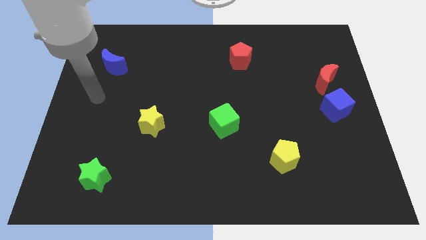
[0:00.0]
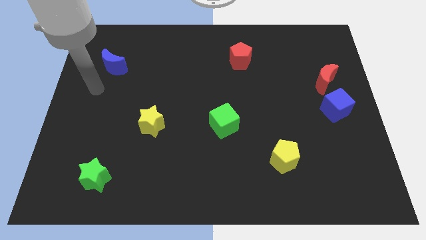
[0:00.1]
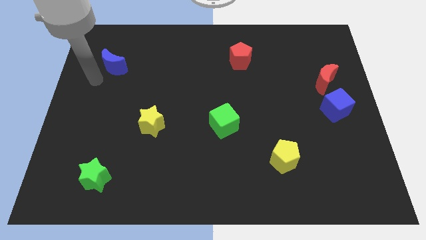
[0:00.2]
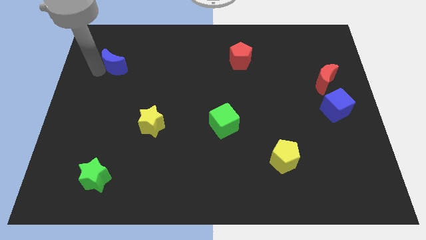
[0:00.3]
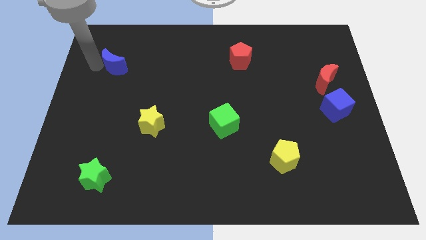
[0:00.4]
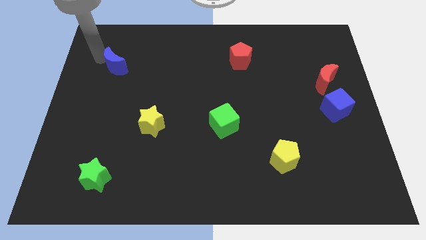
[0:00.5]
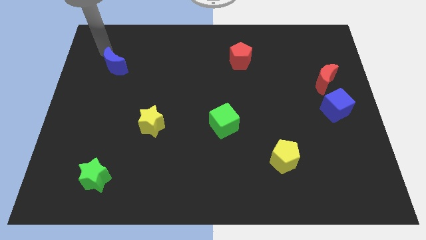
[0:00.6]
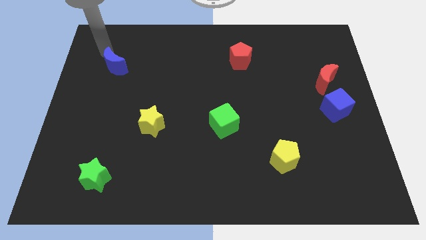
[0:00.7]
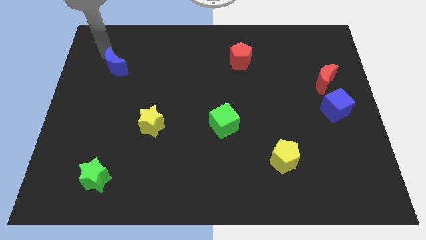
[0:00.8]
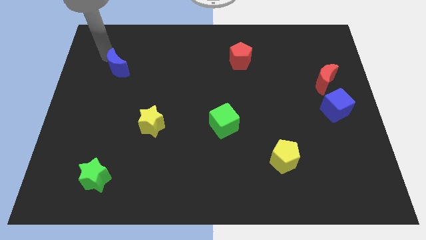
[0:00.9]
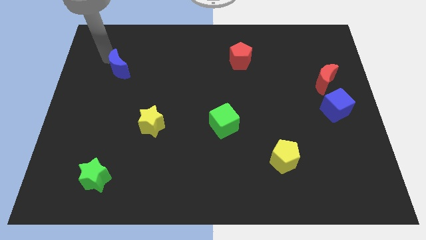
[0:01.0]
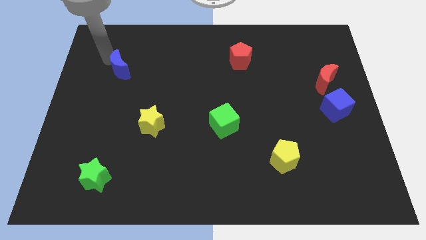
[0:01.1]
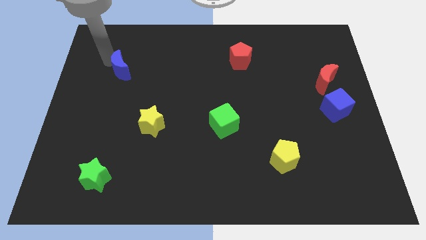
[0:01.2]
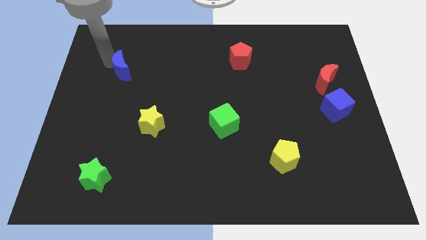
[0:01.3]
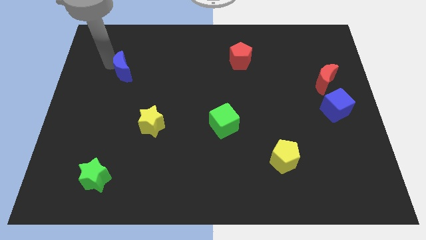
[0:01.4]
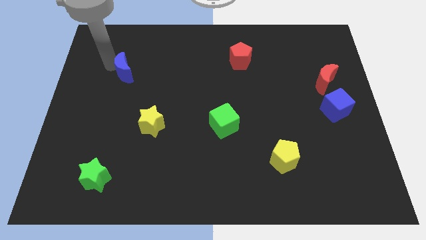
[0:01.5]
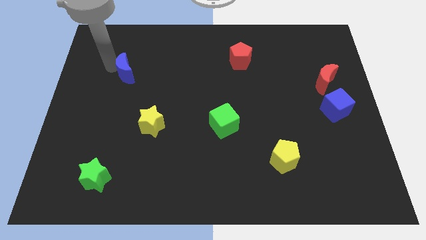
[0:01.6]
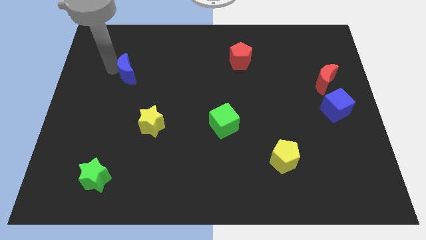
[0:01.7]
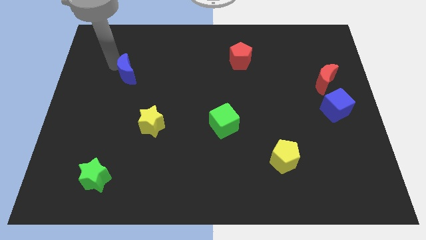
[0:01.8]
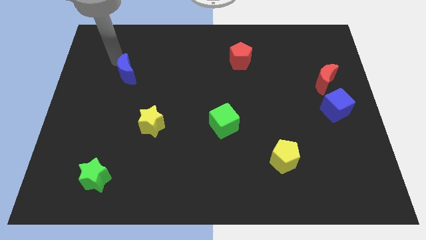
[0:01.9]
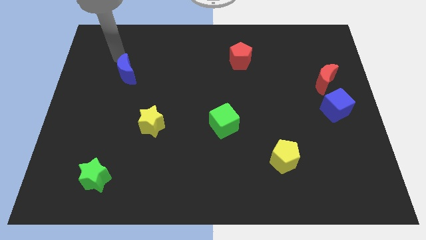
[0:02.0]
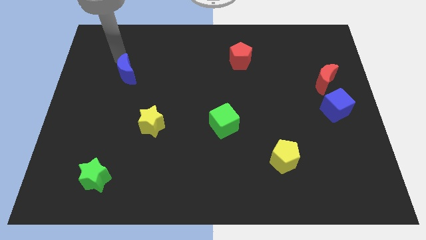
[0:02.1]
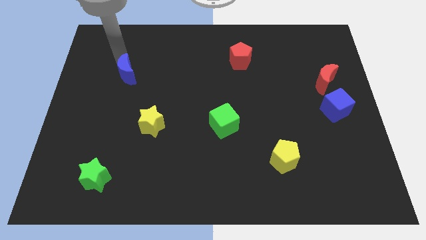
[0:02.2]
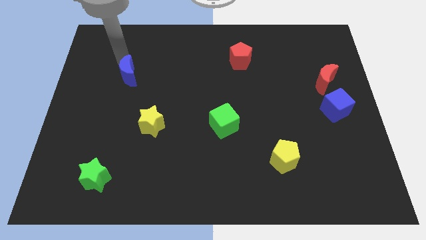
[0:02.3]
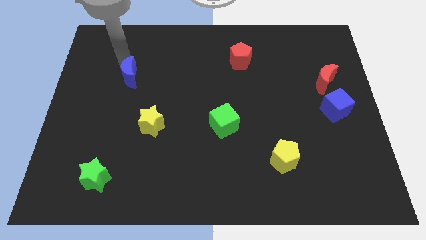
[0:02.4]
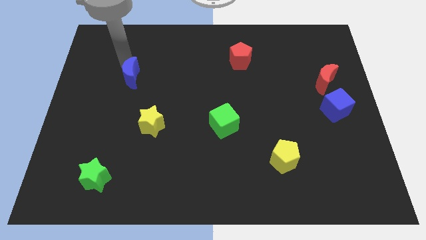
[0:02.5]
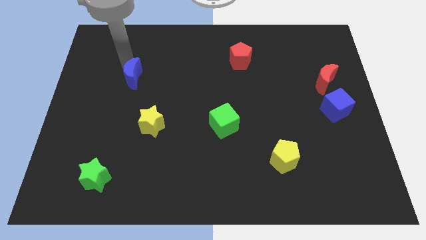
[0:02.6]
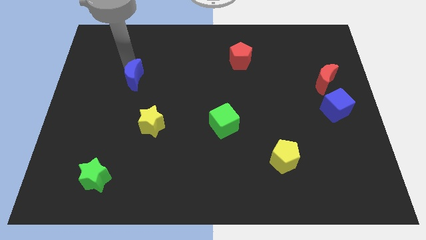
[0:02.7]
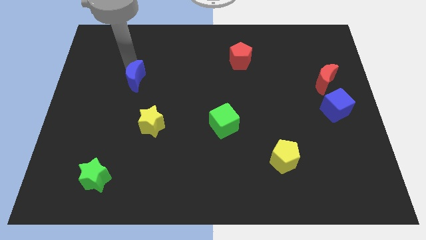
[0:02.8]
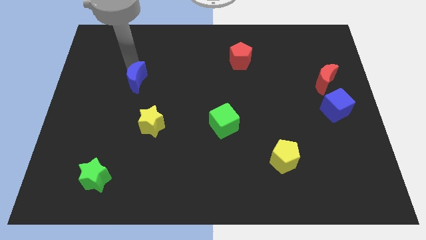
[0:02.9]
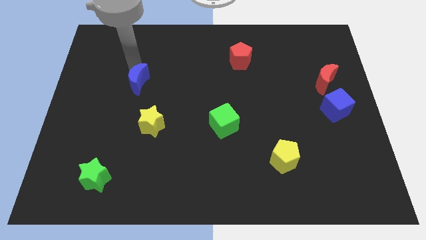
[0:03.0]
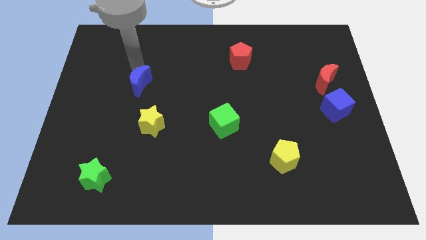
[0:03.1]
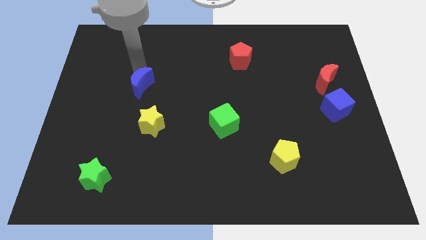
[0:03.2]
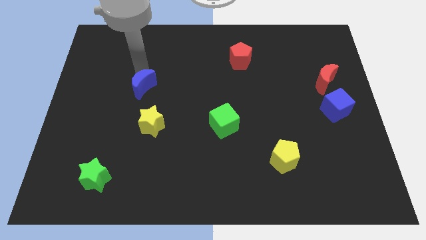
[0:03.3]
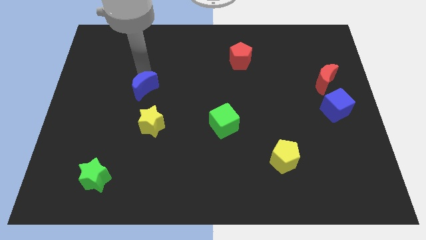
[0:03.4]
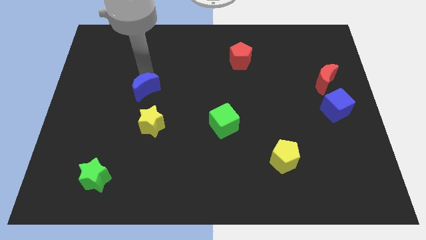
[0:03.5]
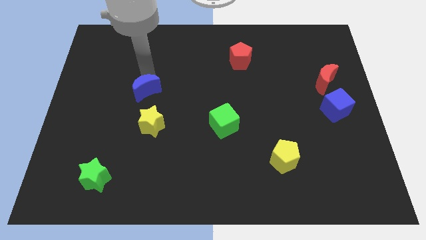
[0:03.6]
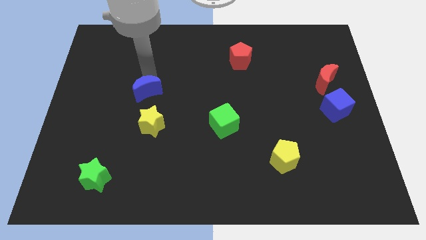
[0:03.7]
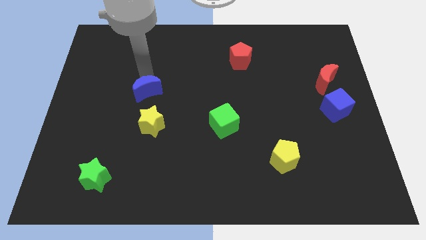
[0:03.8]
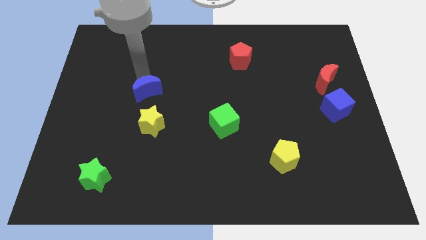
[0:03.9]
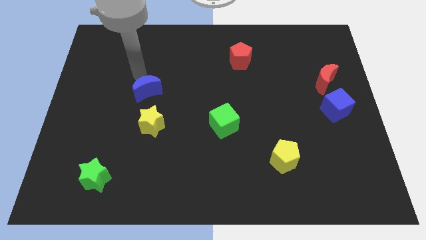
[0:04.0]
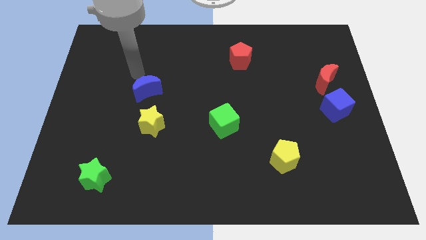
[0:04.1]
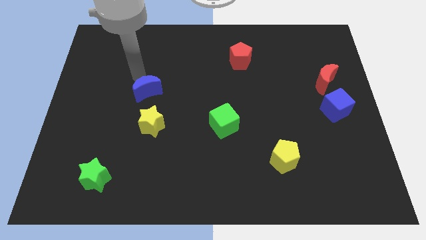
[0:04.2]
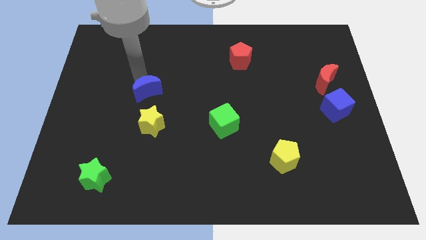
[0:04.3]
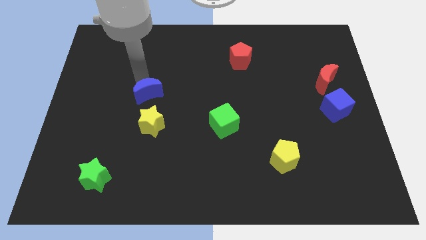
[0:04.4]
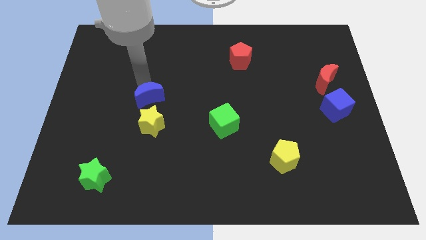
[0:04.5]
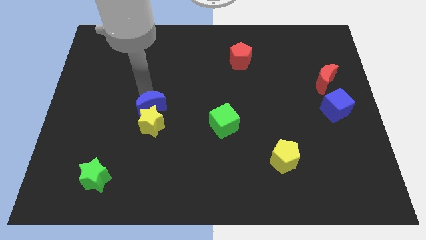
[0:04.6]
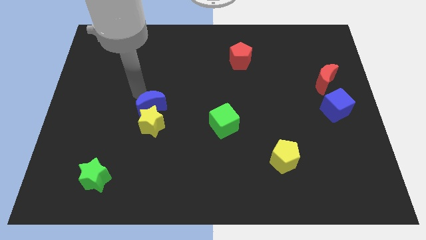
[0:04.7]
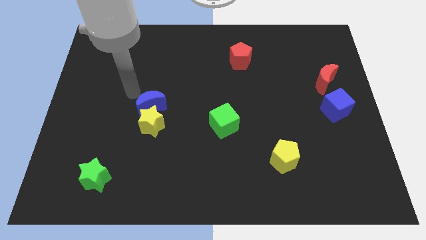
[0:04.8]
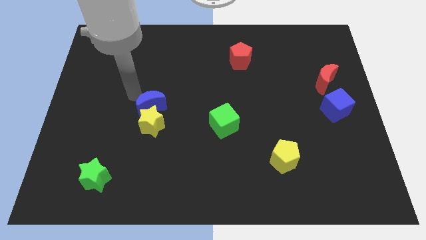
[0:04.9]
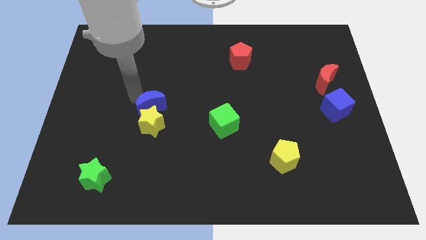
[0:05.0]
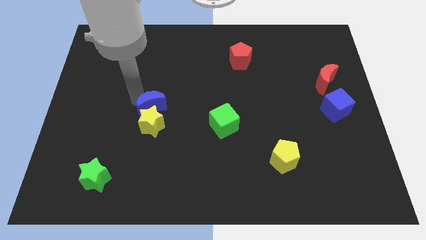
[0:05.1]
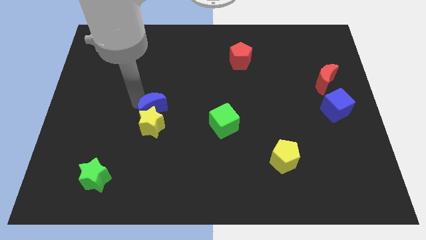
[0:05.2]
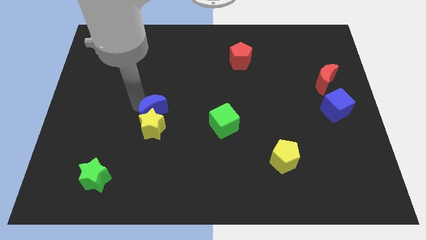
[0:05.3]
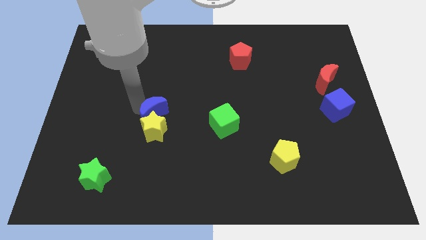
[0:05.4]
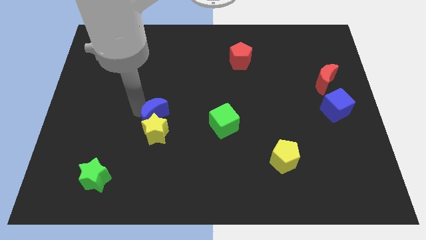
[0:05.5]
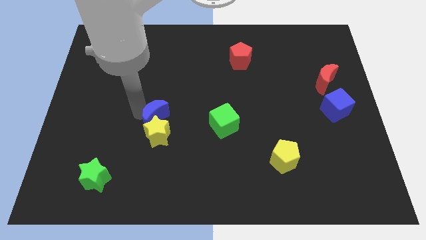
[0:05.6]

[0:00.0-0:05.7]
slide the blue moon just left of the green cube

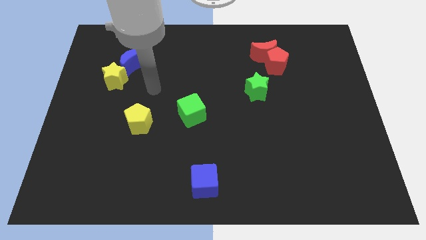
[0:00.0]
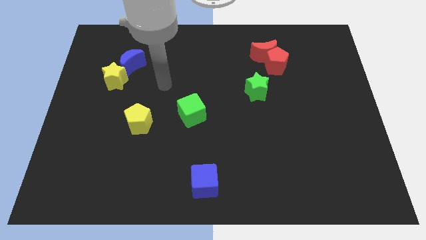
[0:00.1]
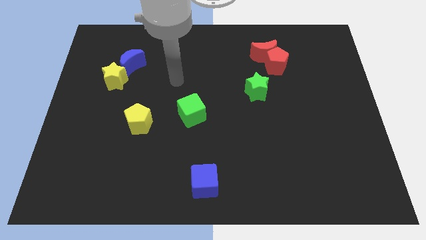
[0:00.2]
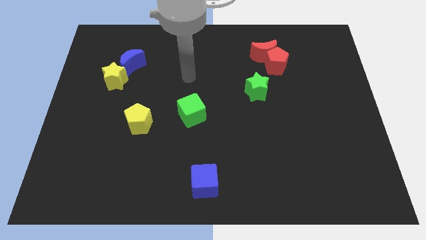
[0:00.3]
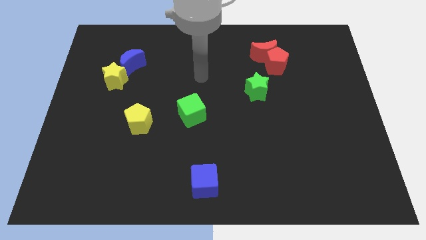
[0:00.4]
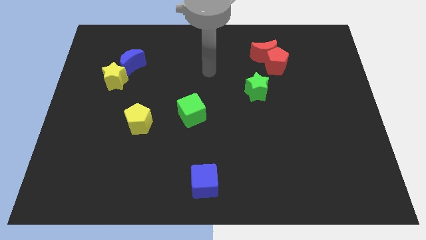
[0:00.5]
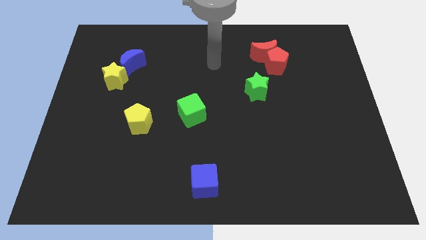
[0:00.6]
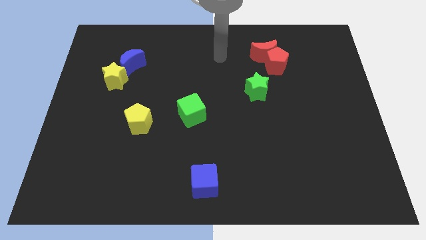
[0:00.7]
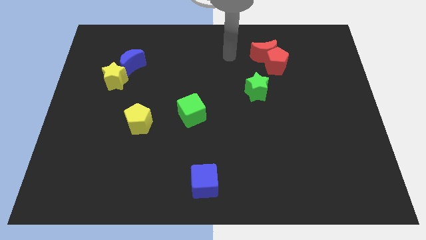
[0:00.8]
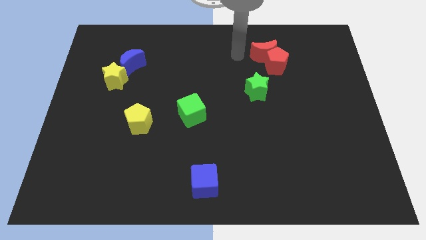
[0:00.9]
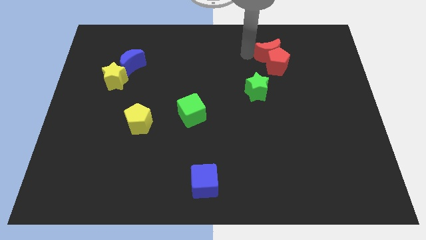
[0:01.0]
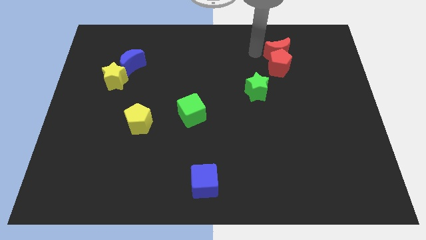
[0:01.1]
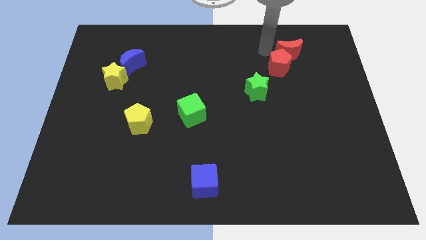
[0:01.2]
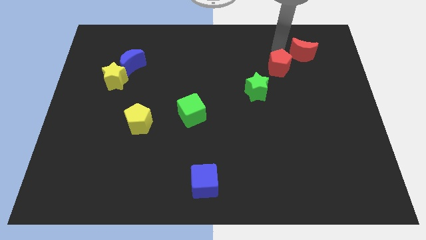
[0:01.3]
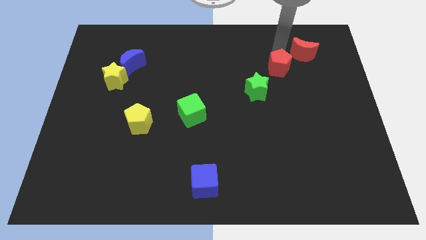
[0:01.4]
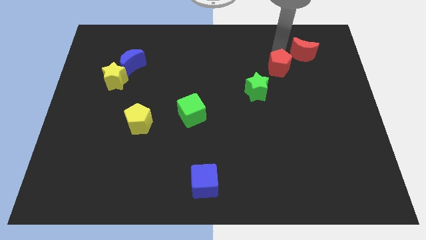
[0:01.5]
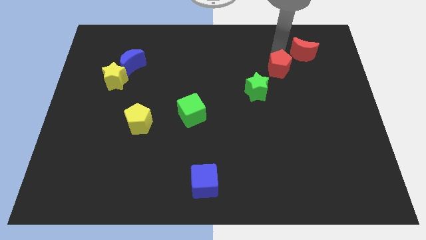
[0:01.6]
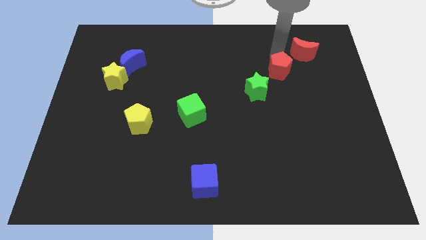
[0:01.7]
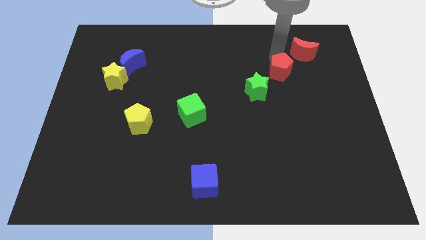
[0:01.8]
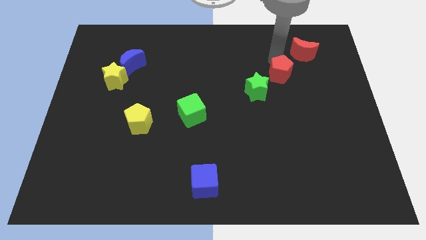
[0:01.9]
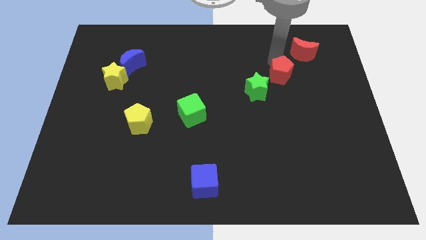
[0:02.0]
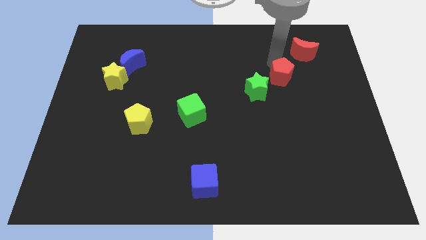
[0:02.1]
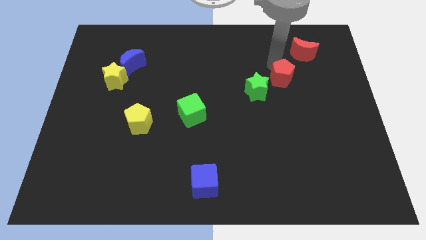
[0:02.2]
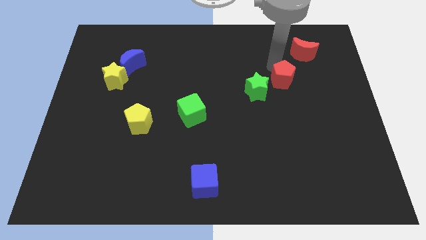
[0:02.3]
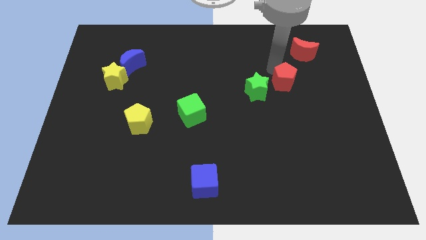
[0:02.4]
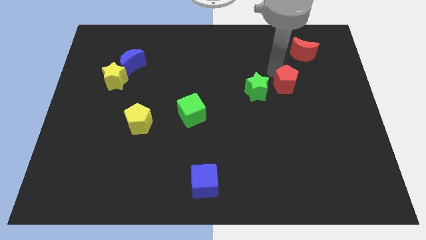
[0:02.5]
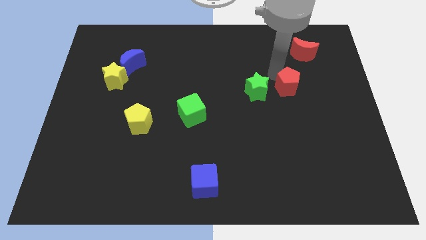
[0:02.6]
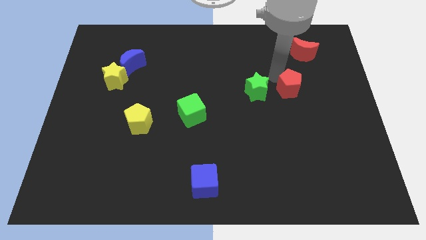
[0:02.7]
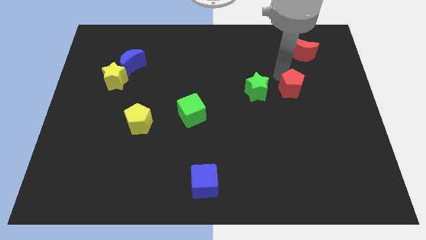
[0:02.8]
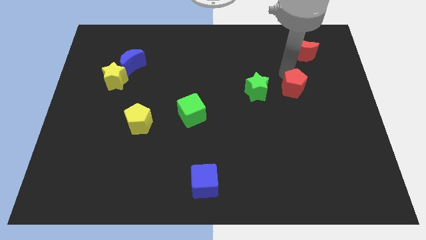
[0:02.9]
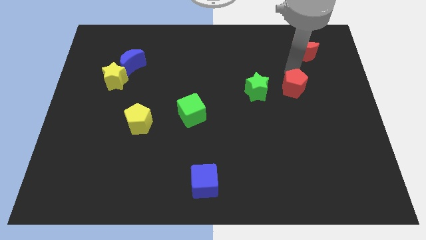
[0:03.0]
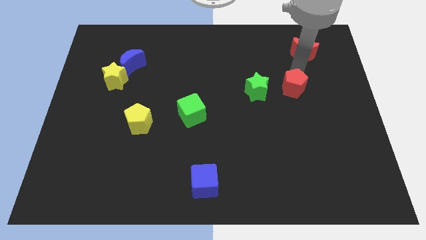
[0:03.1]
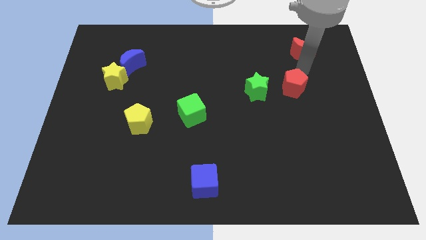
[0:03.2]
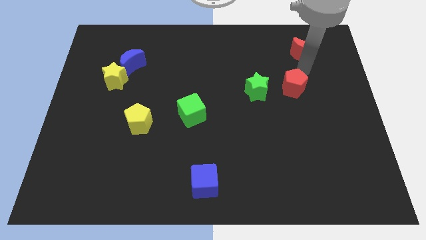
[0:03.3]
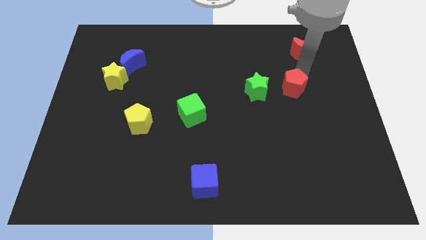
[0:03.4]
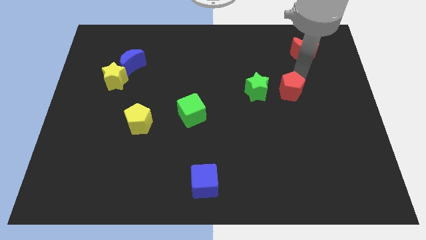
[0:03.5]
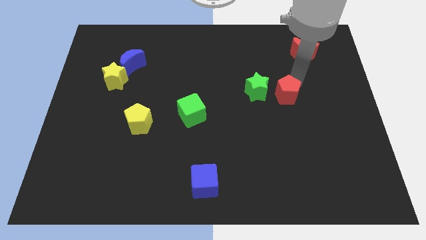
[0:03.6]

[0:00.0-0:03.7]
push the red pentagon to the bottom right of the green star
